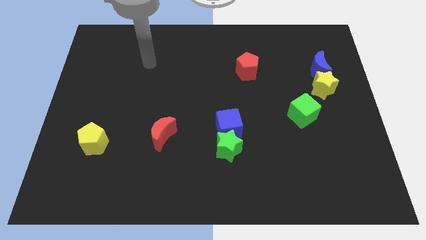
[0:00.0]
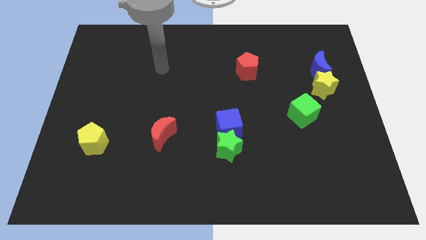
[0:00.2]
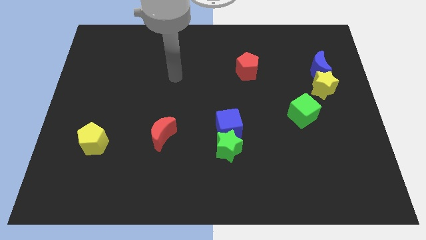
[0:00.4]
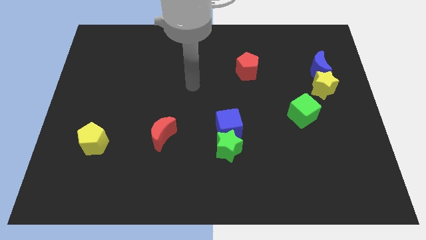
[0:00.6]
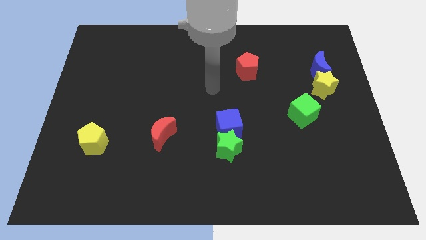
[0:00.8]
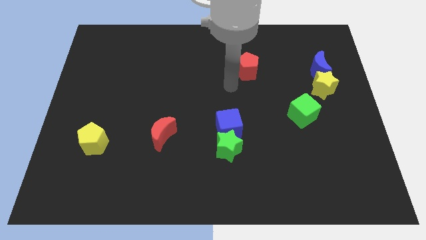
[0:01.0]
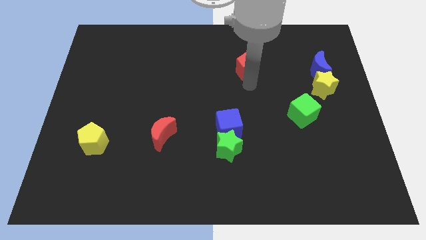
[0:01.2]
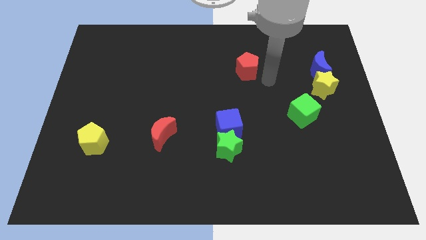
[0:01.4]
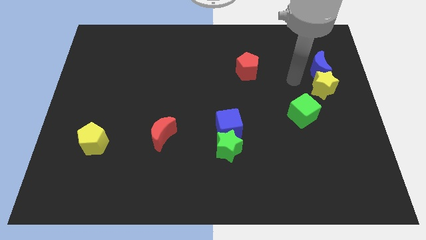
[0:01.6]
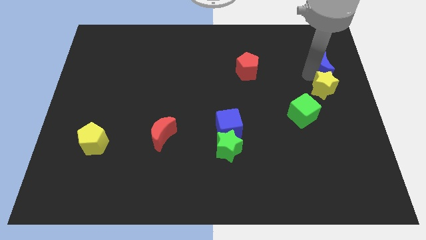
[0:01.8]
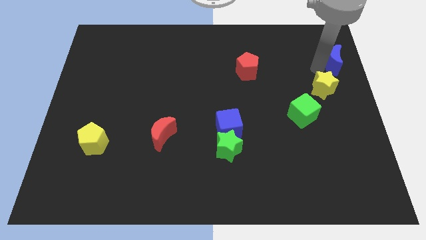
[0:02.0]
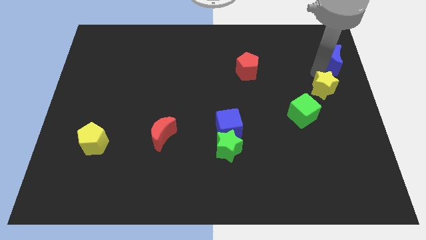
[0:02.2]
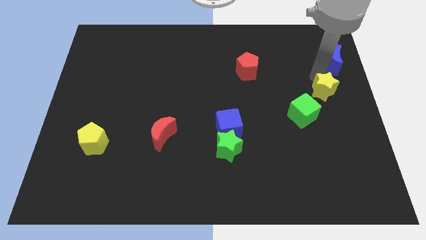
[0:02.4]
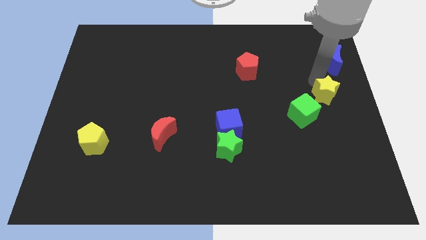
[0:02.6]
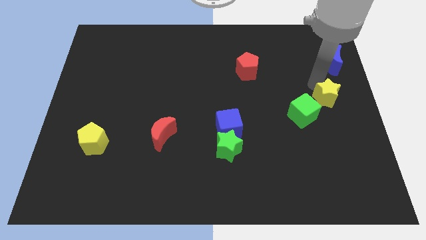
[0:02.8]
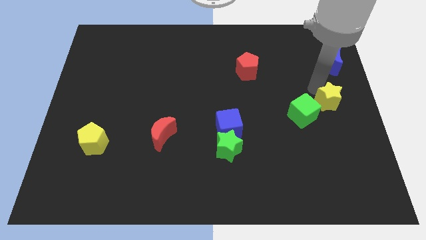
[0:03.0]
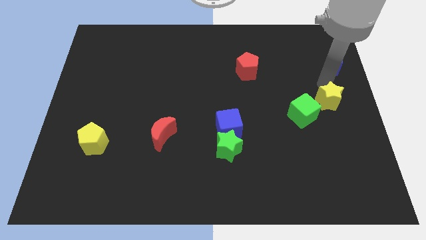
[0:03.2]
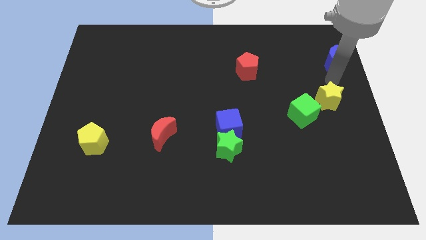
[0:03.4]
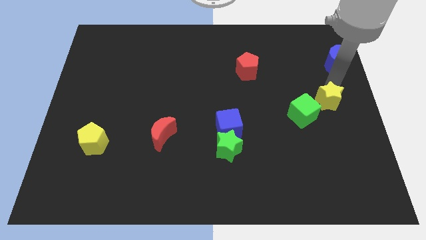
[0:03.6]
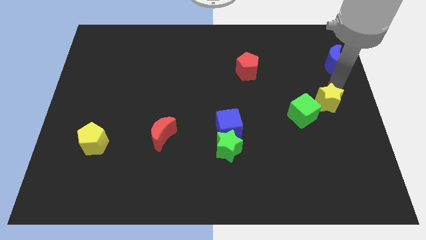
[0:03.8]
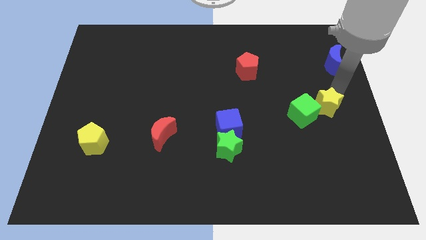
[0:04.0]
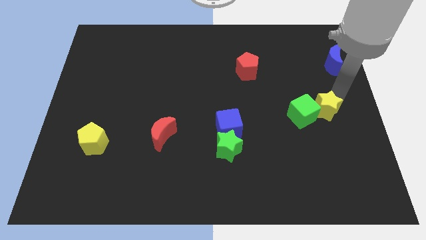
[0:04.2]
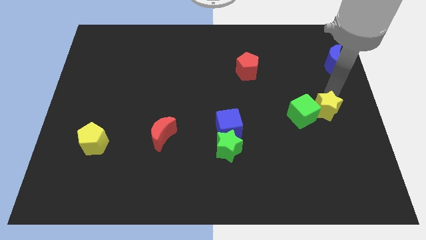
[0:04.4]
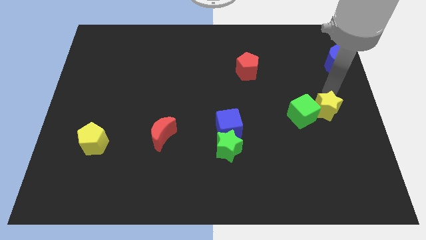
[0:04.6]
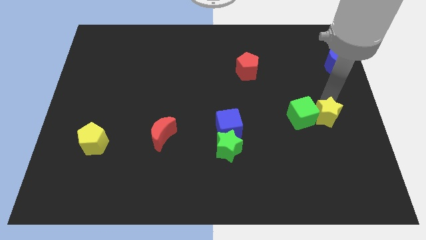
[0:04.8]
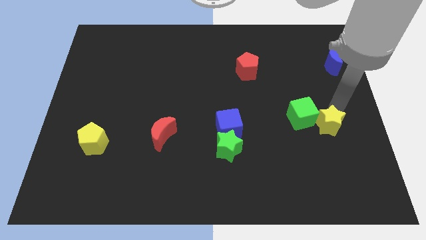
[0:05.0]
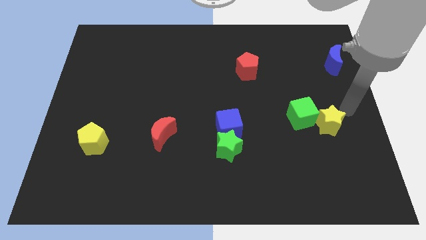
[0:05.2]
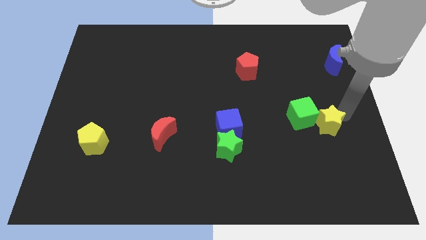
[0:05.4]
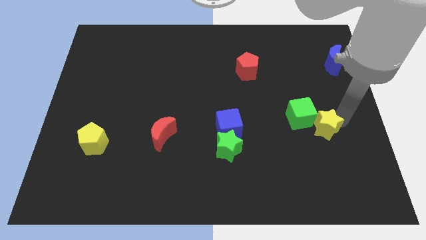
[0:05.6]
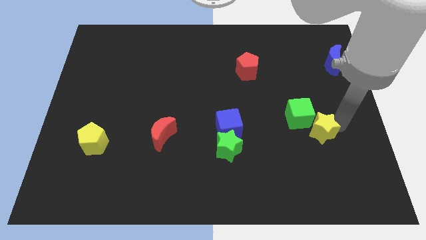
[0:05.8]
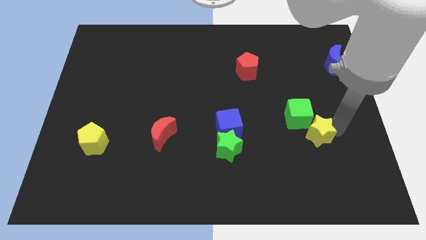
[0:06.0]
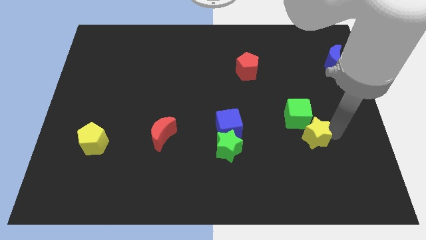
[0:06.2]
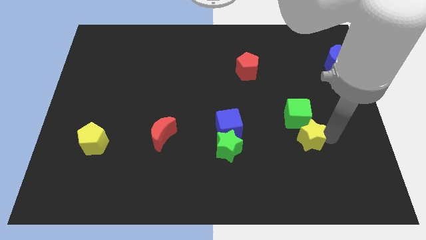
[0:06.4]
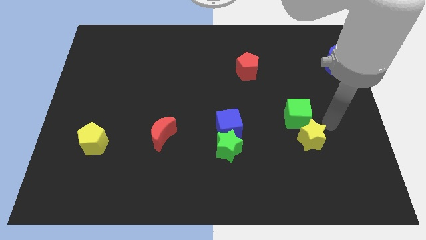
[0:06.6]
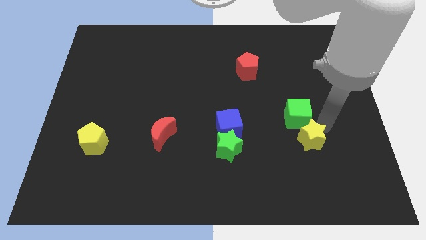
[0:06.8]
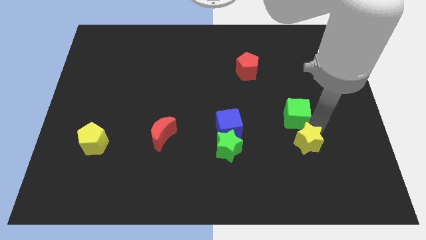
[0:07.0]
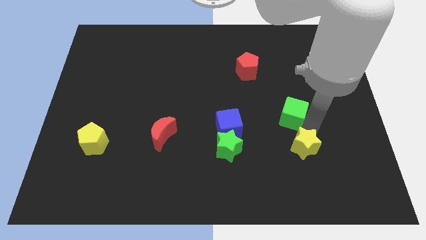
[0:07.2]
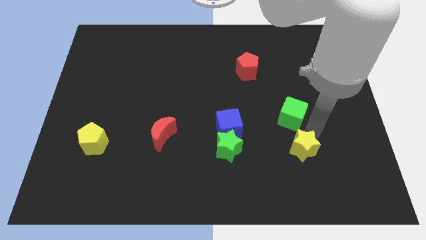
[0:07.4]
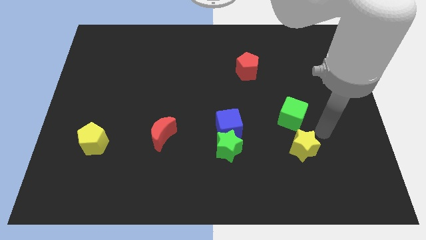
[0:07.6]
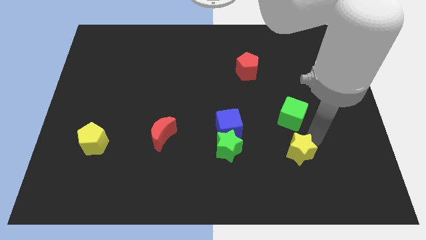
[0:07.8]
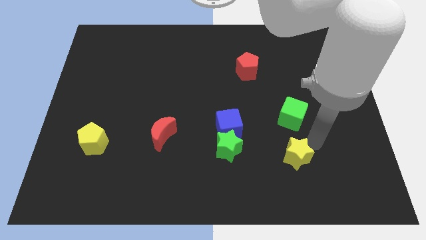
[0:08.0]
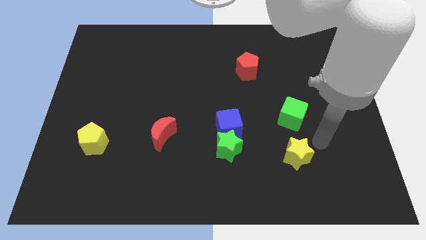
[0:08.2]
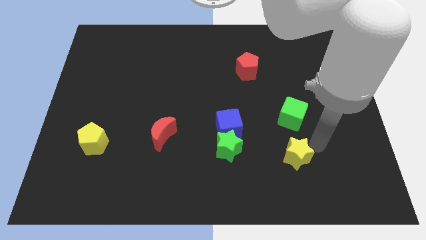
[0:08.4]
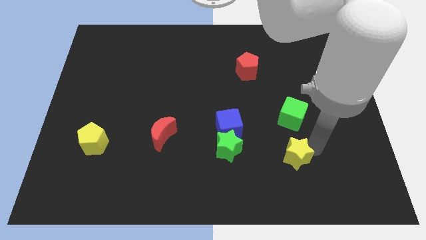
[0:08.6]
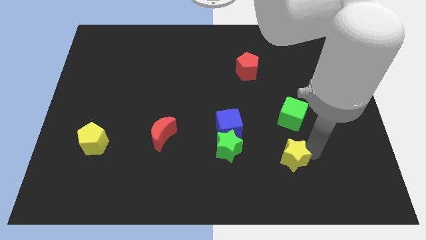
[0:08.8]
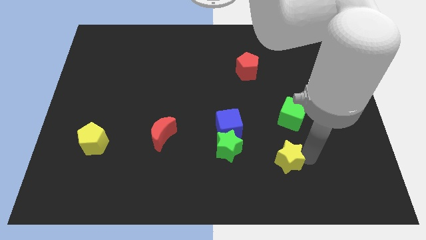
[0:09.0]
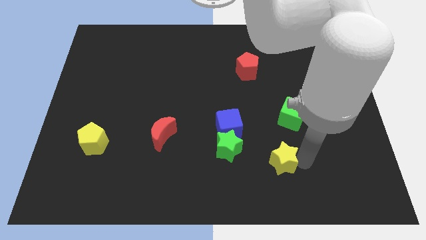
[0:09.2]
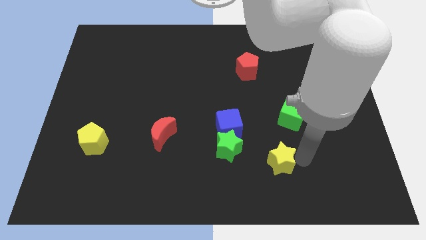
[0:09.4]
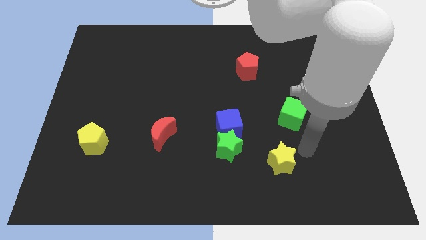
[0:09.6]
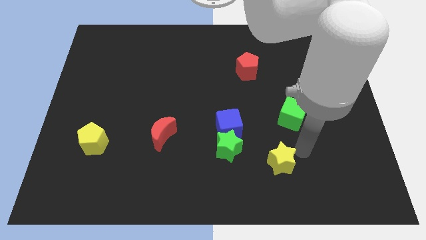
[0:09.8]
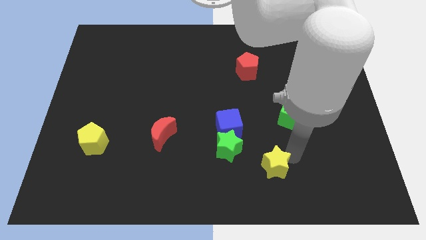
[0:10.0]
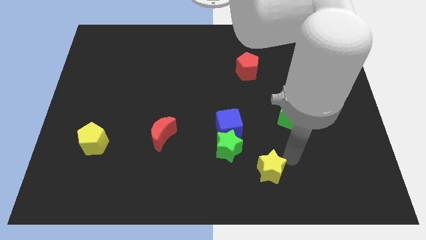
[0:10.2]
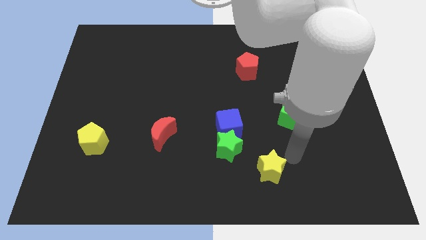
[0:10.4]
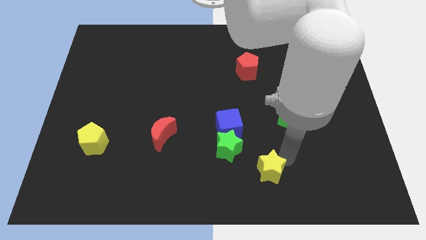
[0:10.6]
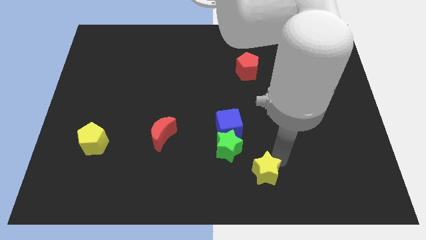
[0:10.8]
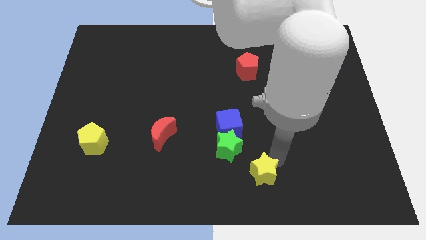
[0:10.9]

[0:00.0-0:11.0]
push the yellow star to the bottom

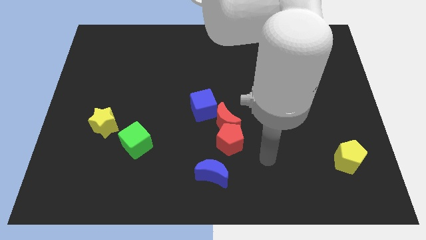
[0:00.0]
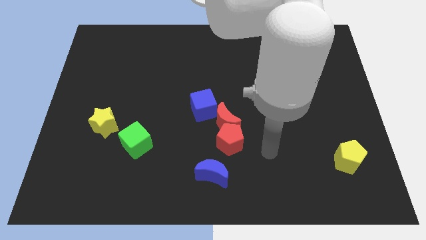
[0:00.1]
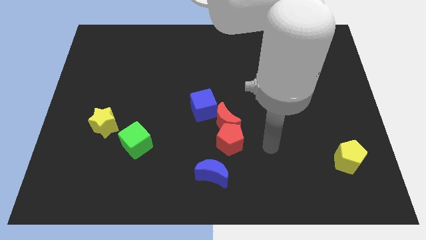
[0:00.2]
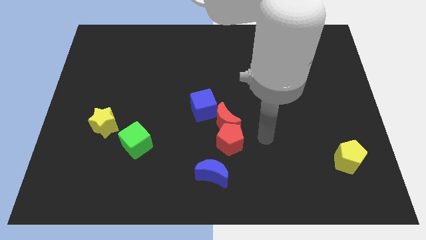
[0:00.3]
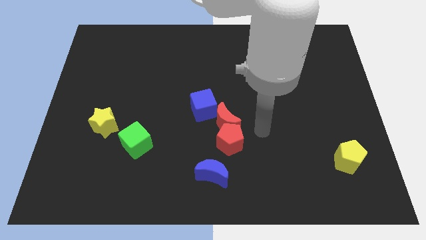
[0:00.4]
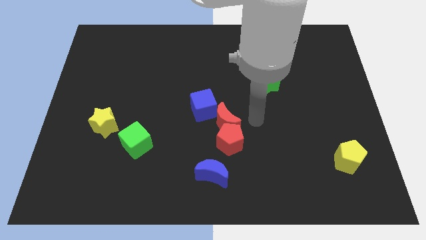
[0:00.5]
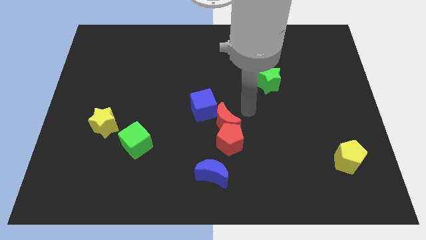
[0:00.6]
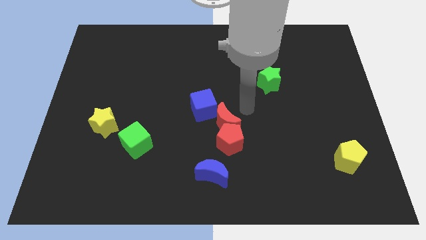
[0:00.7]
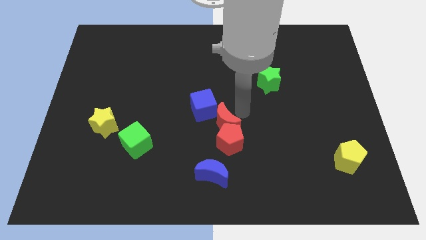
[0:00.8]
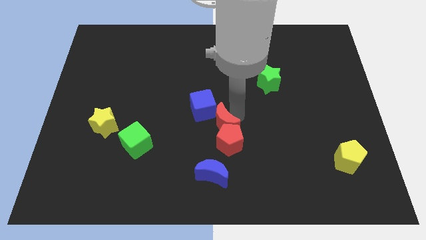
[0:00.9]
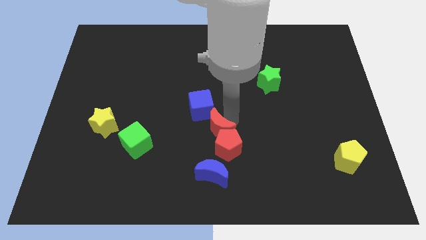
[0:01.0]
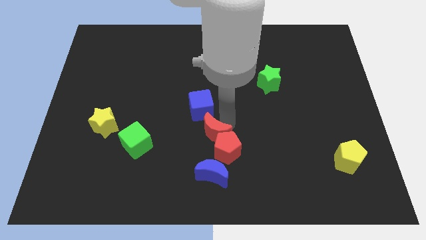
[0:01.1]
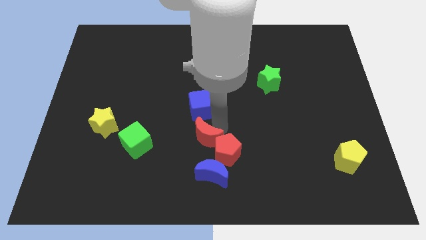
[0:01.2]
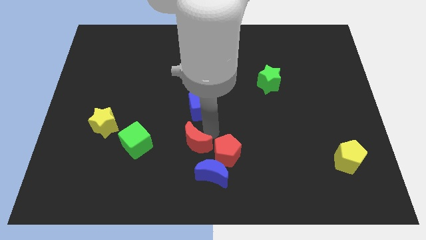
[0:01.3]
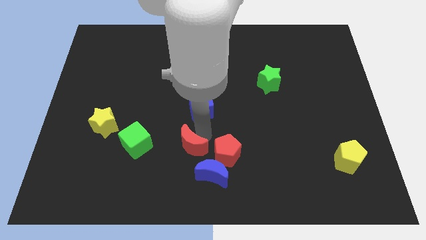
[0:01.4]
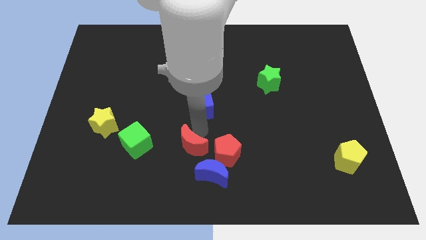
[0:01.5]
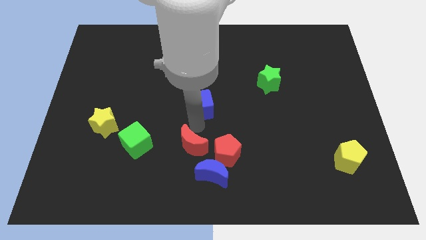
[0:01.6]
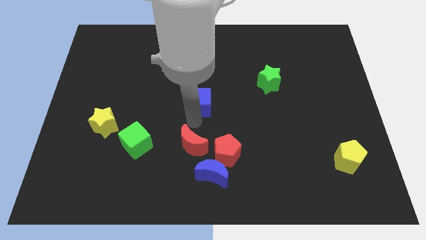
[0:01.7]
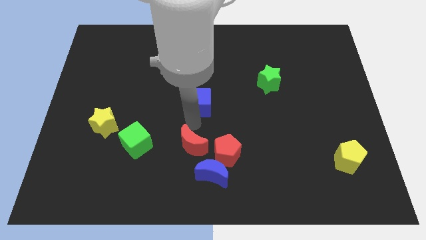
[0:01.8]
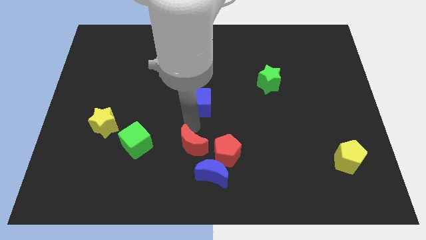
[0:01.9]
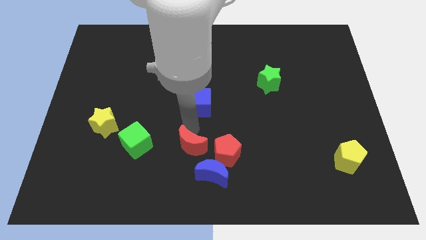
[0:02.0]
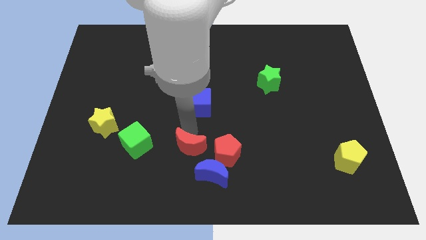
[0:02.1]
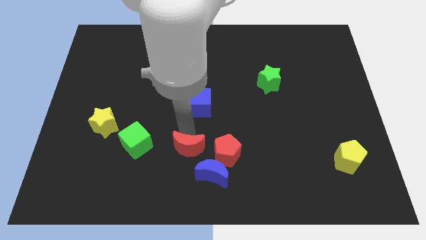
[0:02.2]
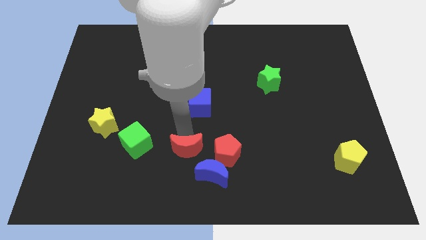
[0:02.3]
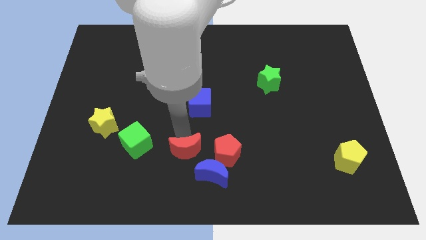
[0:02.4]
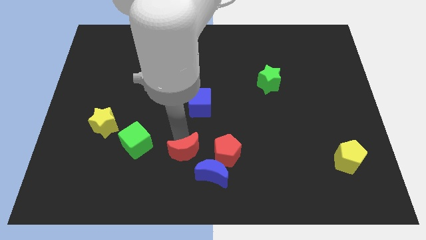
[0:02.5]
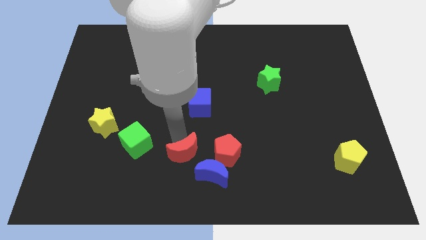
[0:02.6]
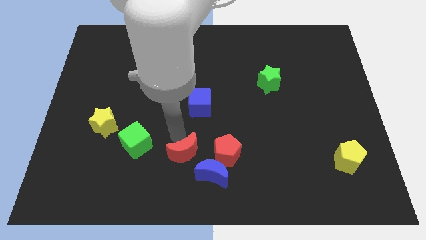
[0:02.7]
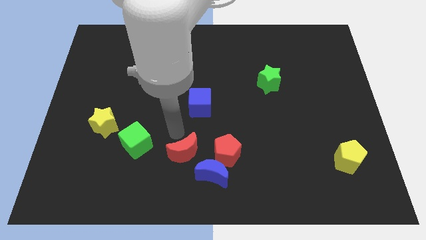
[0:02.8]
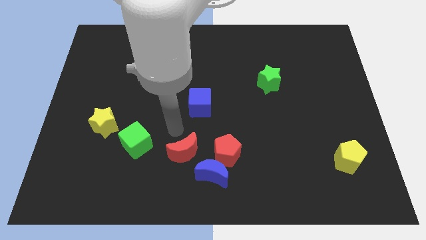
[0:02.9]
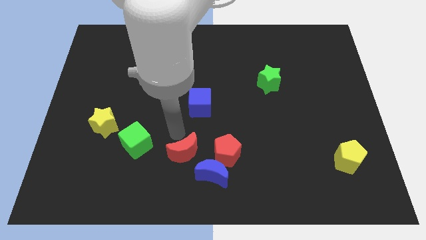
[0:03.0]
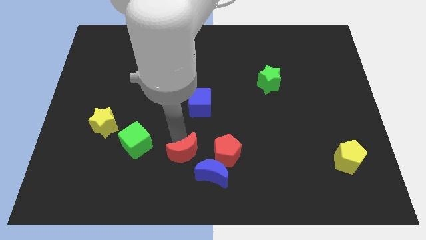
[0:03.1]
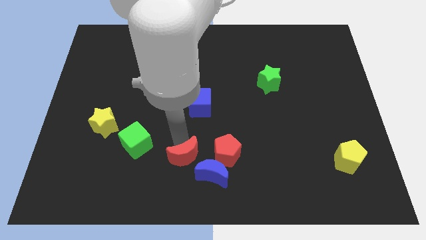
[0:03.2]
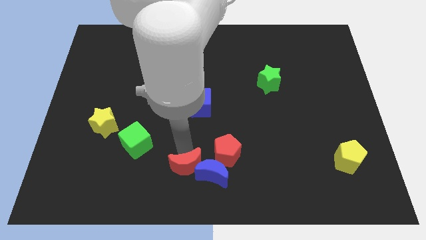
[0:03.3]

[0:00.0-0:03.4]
move the red moon to the bottom
